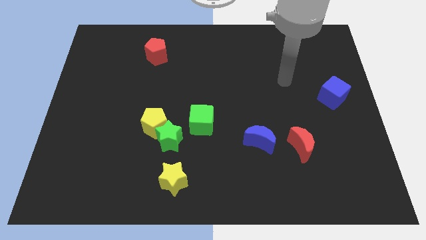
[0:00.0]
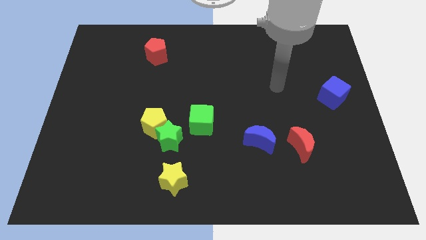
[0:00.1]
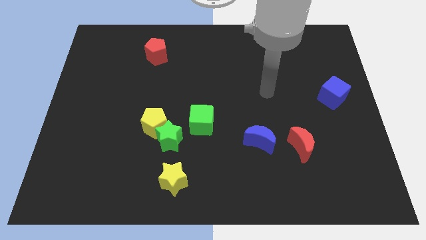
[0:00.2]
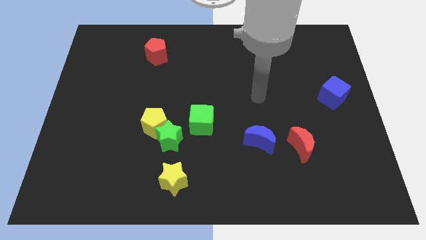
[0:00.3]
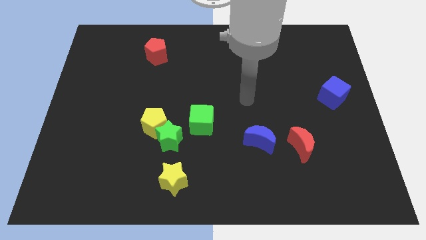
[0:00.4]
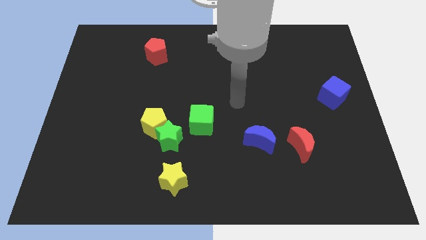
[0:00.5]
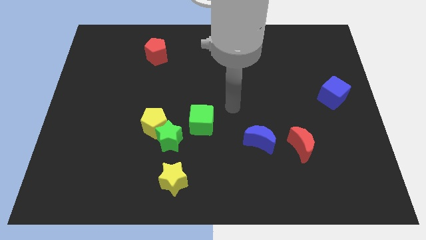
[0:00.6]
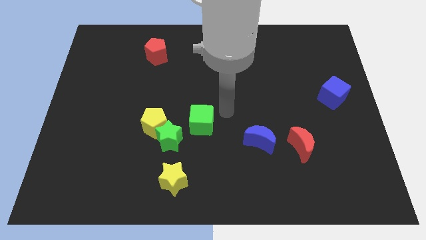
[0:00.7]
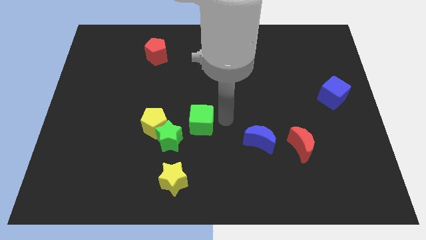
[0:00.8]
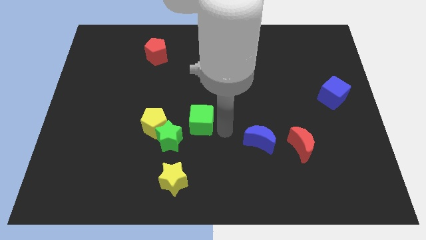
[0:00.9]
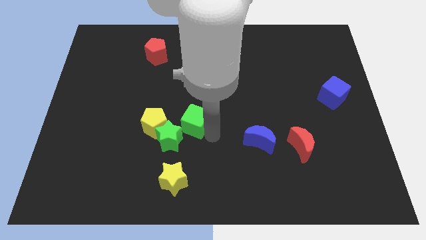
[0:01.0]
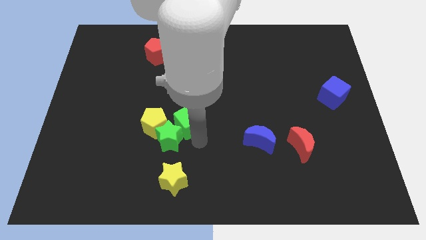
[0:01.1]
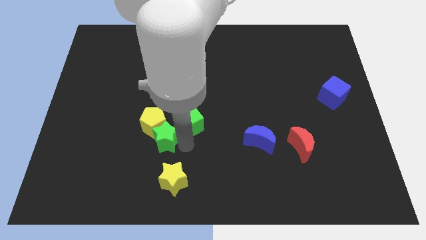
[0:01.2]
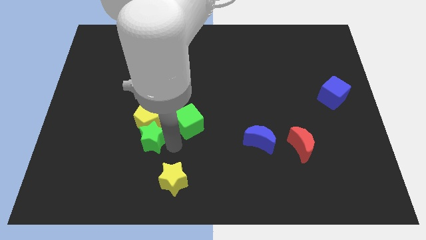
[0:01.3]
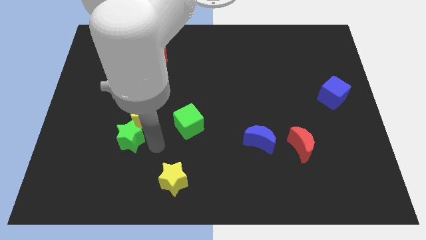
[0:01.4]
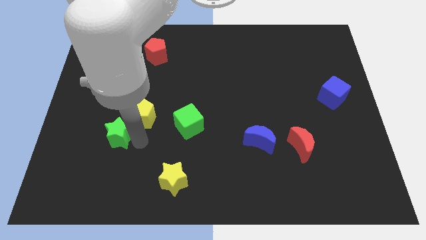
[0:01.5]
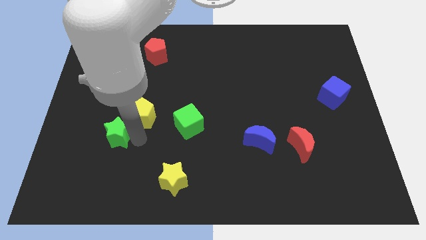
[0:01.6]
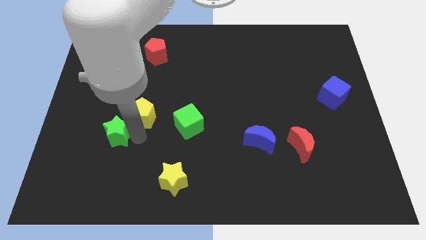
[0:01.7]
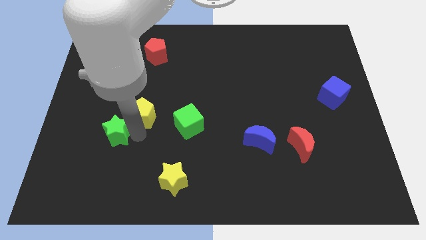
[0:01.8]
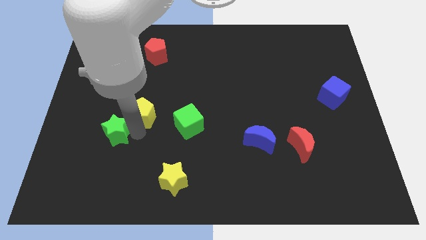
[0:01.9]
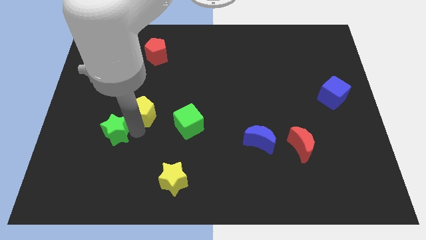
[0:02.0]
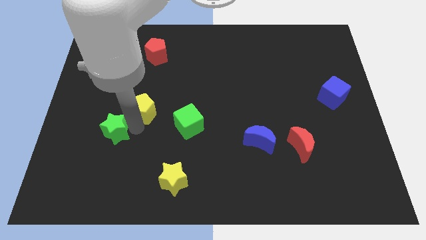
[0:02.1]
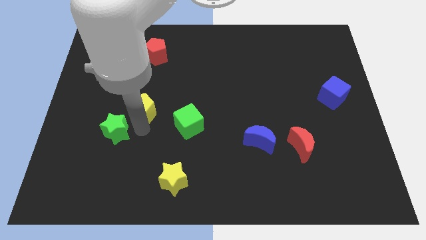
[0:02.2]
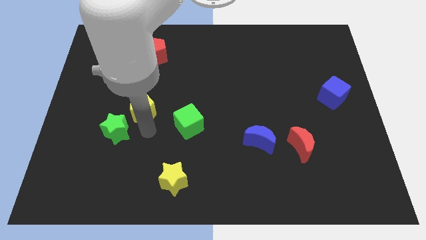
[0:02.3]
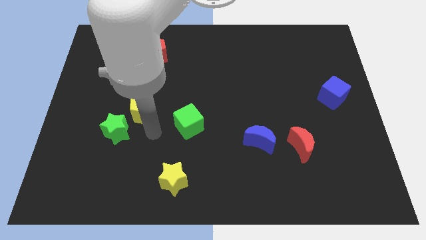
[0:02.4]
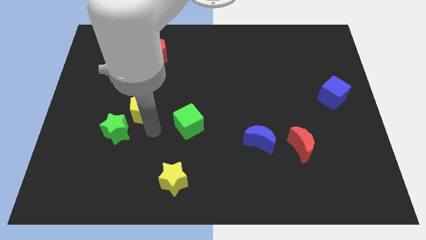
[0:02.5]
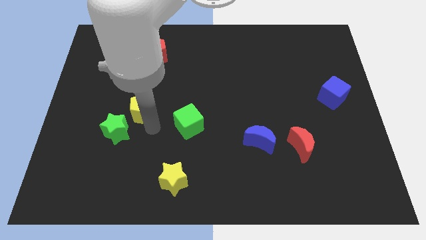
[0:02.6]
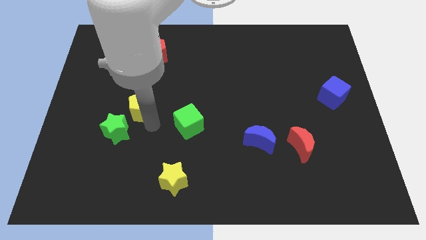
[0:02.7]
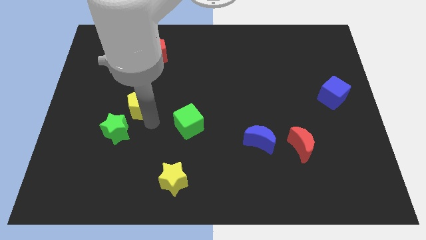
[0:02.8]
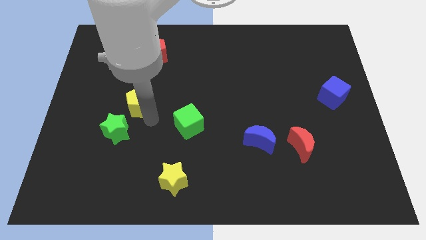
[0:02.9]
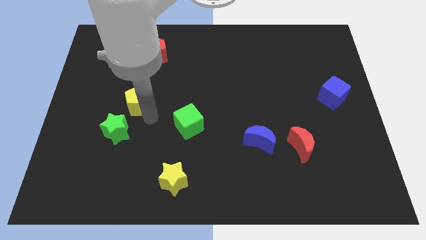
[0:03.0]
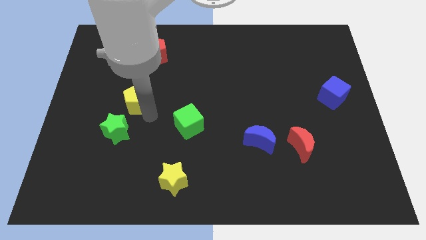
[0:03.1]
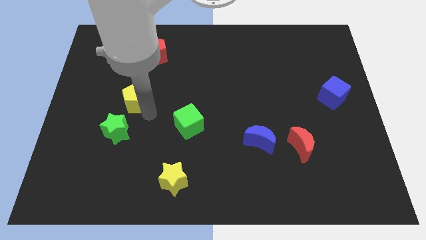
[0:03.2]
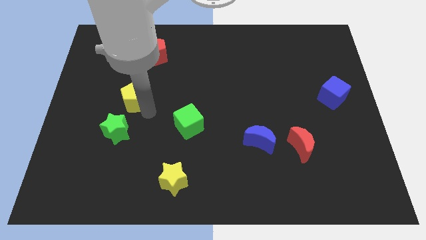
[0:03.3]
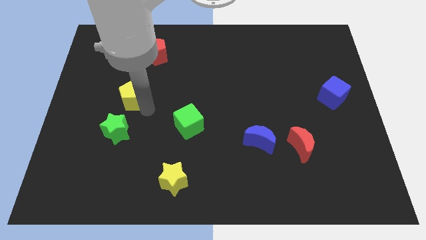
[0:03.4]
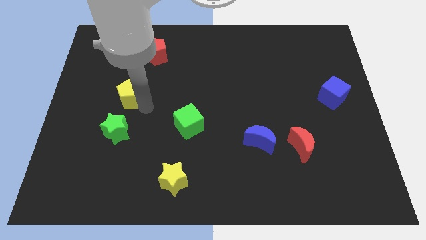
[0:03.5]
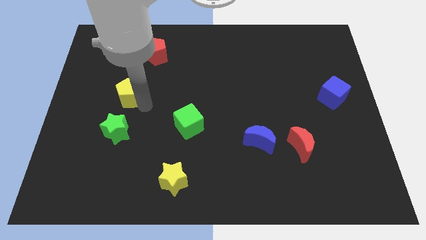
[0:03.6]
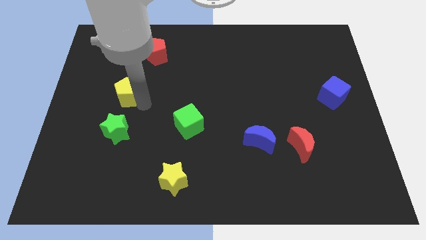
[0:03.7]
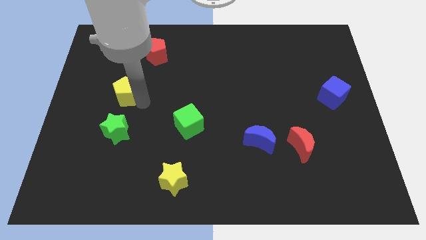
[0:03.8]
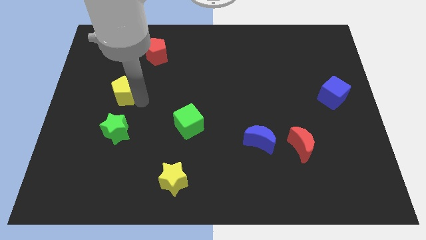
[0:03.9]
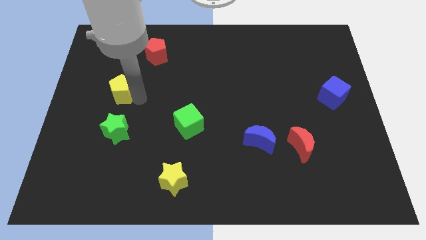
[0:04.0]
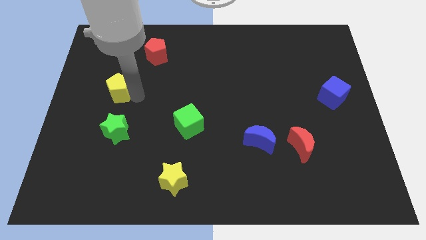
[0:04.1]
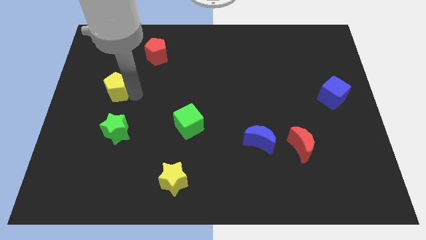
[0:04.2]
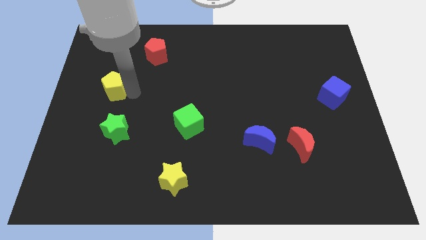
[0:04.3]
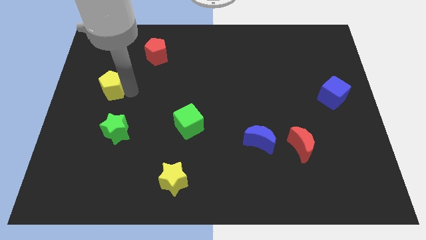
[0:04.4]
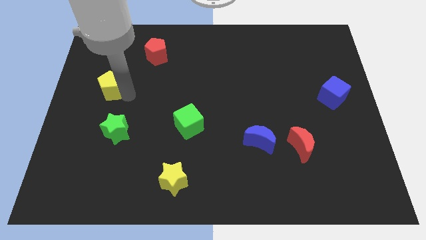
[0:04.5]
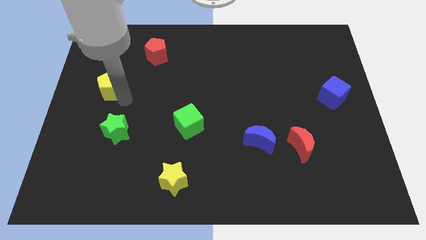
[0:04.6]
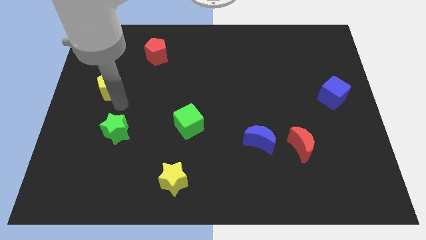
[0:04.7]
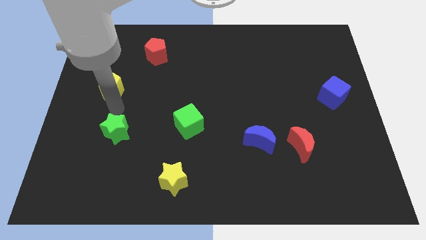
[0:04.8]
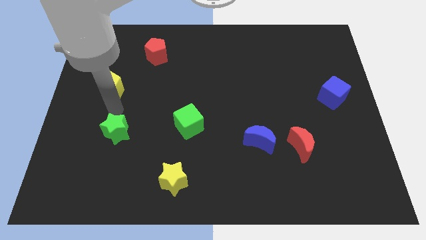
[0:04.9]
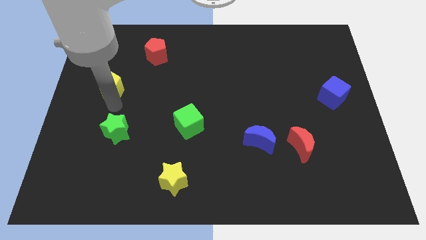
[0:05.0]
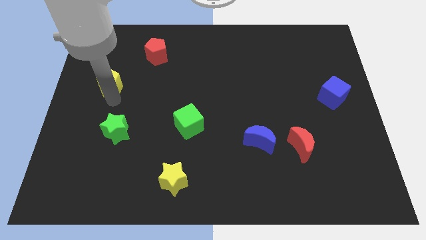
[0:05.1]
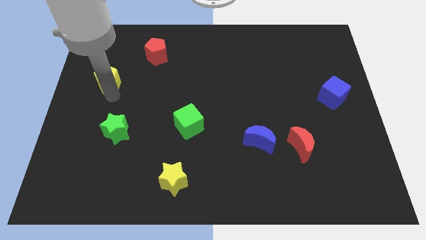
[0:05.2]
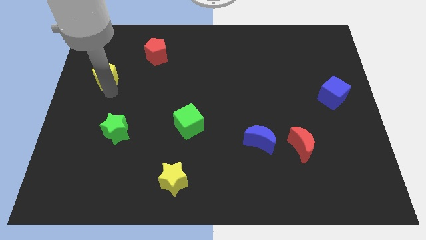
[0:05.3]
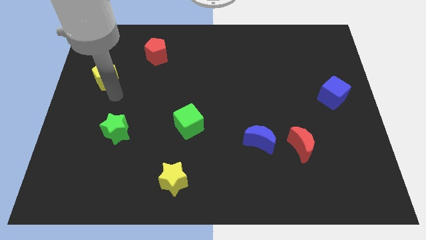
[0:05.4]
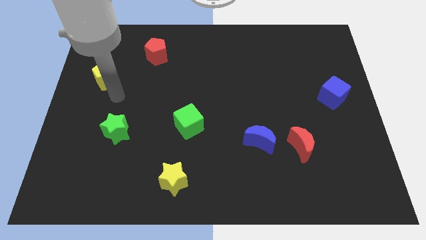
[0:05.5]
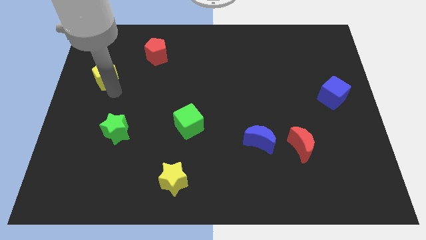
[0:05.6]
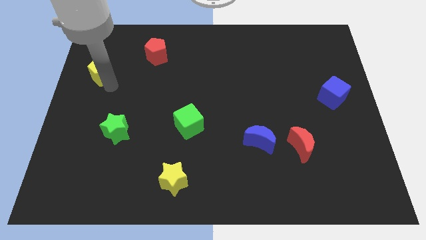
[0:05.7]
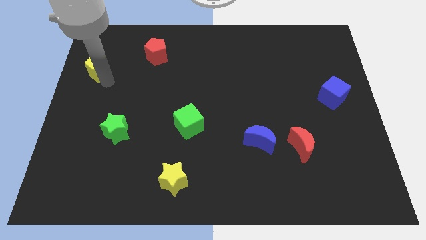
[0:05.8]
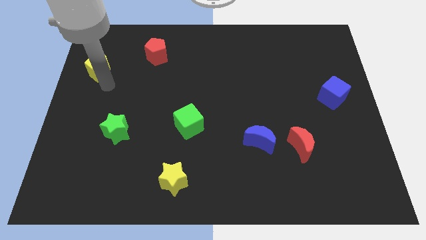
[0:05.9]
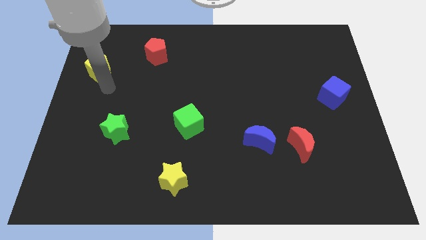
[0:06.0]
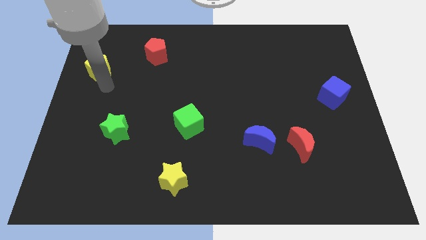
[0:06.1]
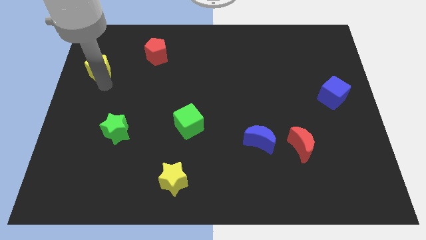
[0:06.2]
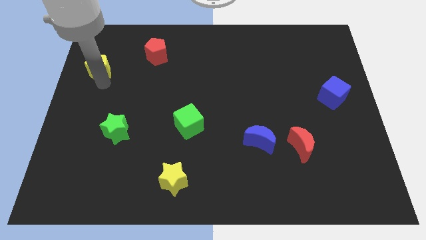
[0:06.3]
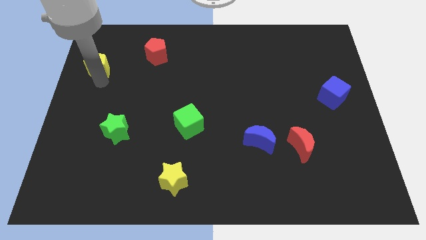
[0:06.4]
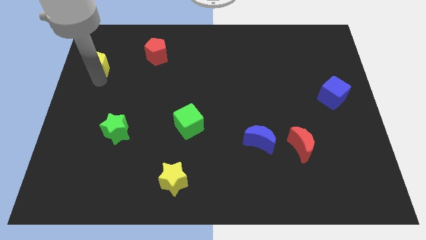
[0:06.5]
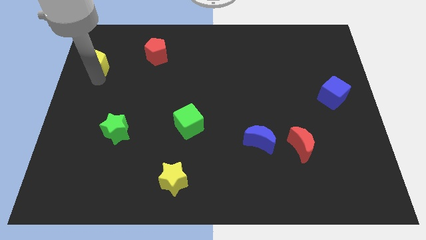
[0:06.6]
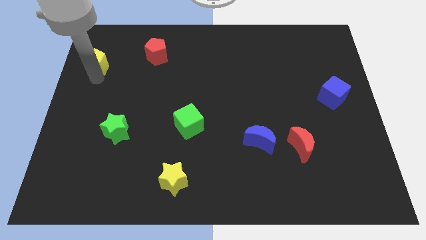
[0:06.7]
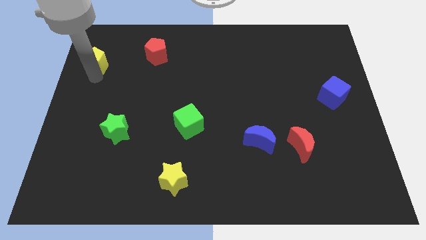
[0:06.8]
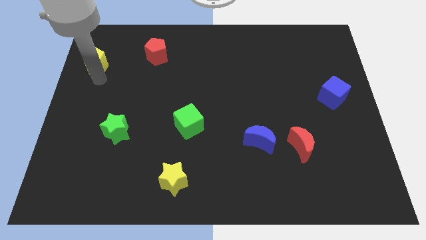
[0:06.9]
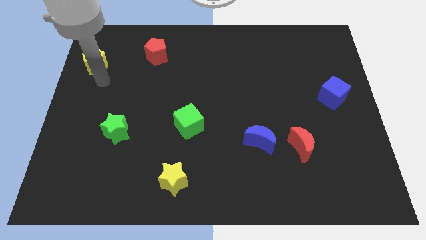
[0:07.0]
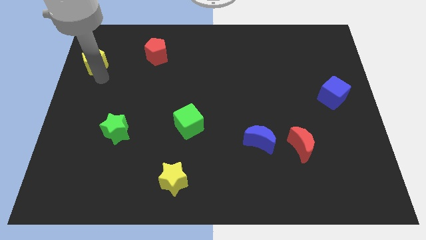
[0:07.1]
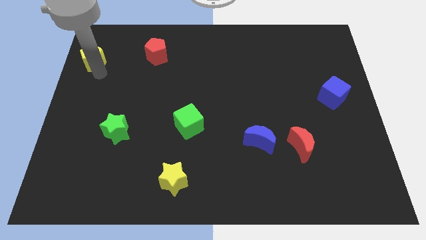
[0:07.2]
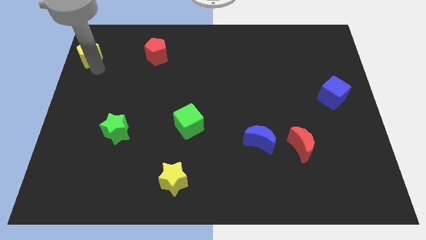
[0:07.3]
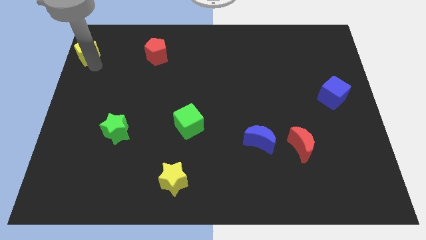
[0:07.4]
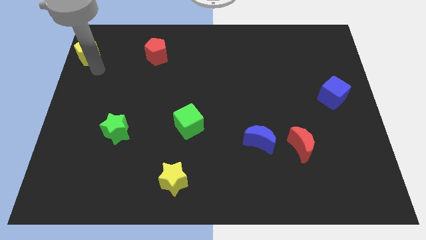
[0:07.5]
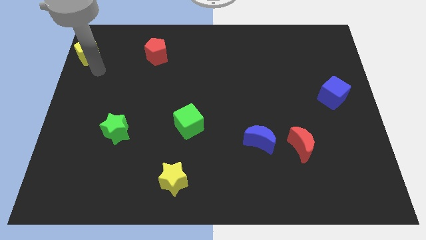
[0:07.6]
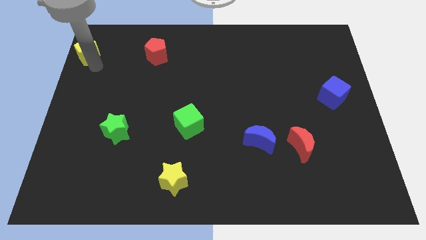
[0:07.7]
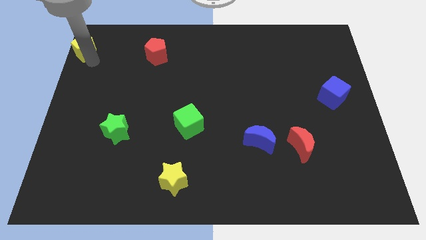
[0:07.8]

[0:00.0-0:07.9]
move the yellow pentagon to the top left of the board
